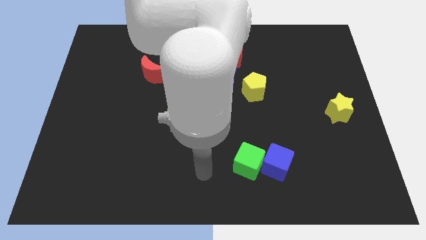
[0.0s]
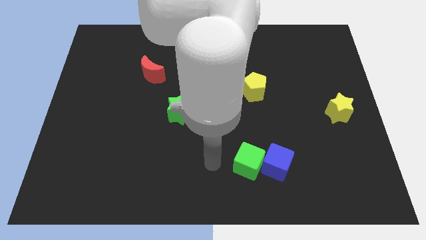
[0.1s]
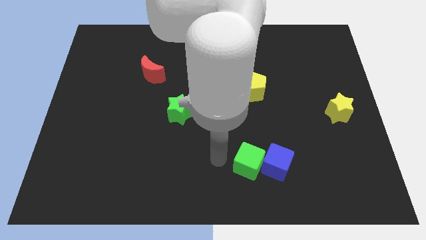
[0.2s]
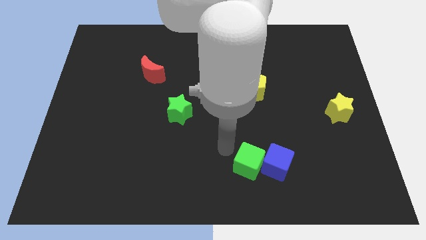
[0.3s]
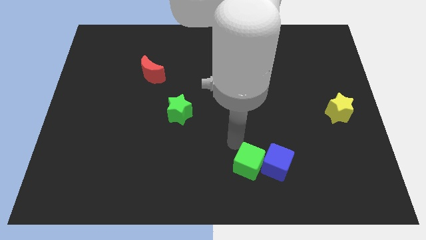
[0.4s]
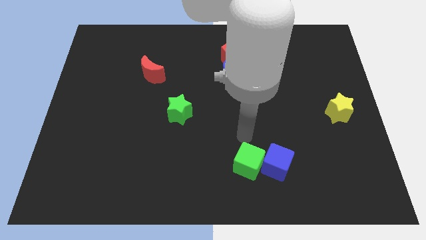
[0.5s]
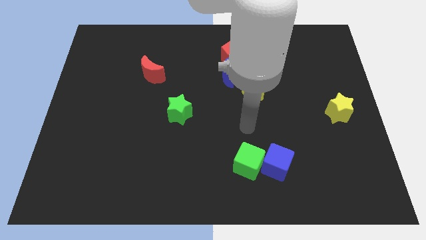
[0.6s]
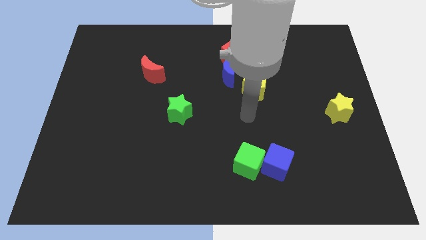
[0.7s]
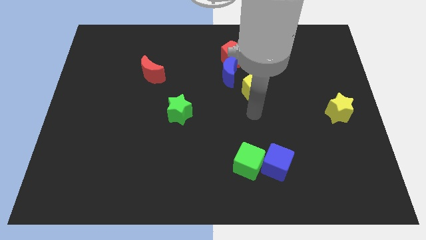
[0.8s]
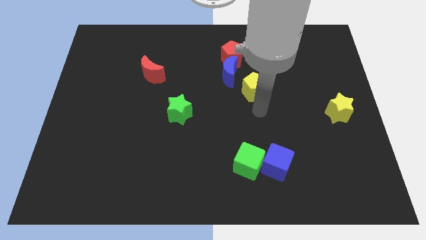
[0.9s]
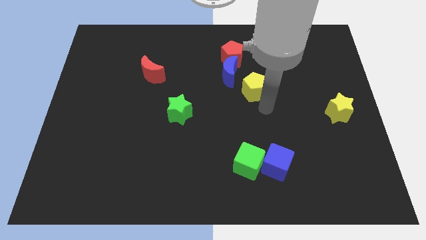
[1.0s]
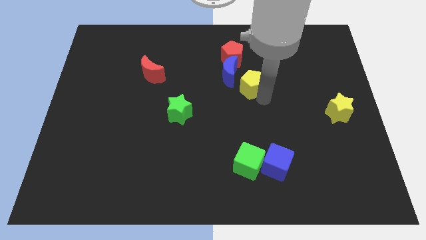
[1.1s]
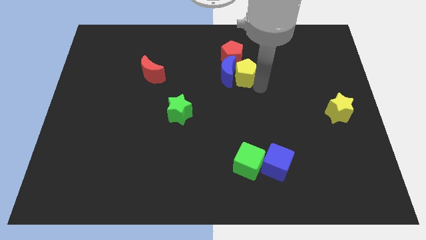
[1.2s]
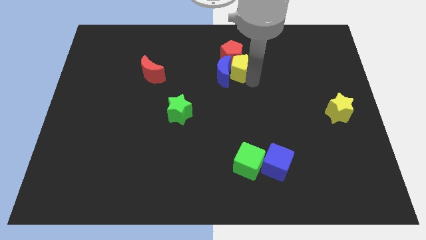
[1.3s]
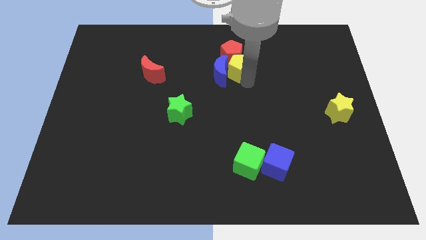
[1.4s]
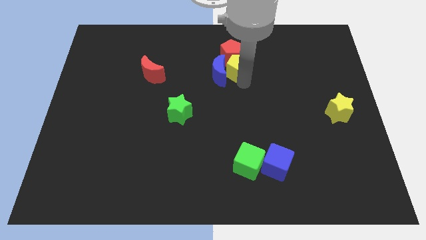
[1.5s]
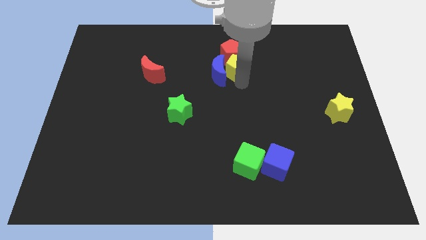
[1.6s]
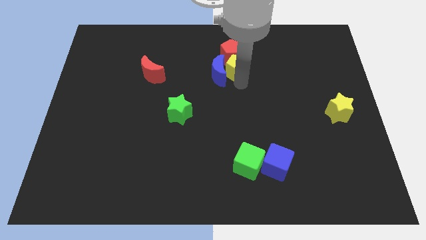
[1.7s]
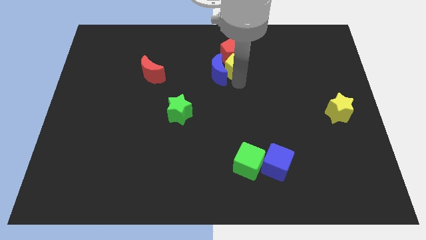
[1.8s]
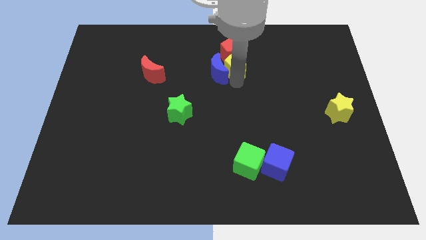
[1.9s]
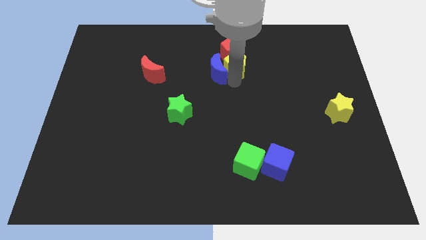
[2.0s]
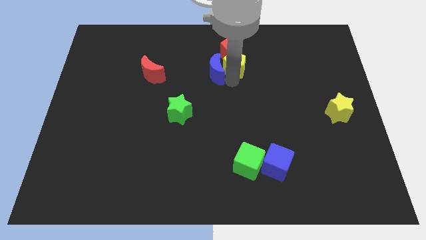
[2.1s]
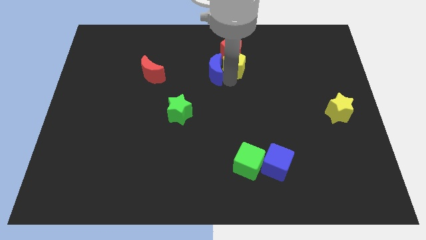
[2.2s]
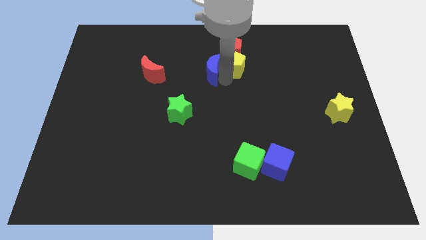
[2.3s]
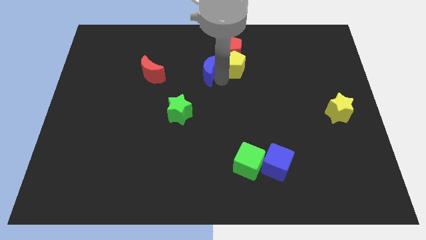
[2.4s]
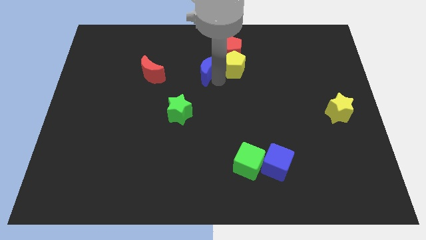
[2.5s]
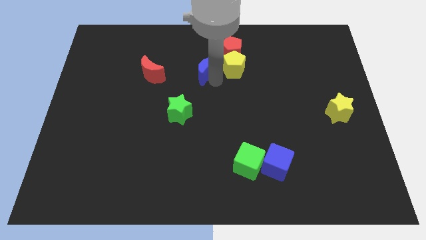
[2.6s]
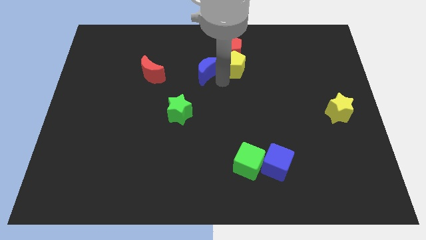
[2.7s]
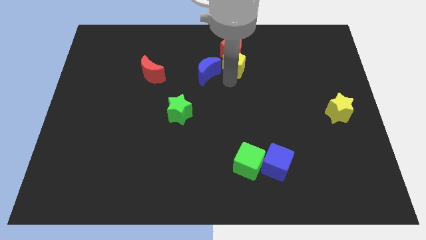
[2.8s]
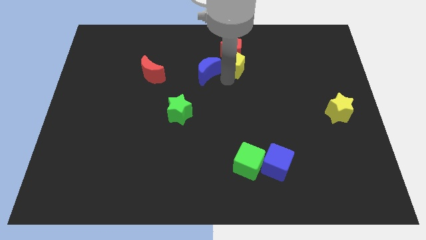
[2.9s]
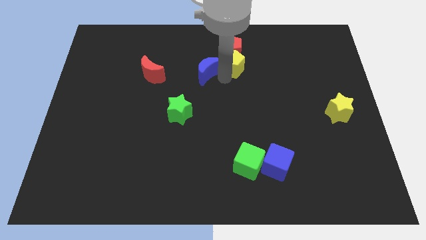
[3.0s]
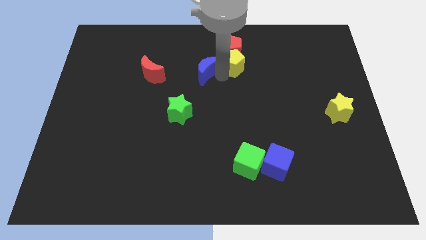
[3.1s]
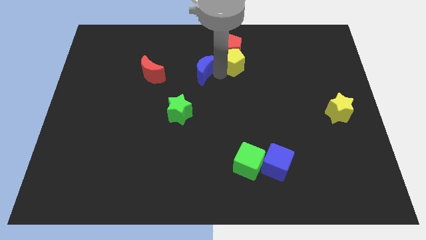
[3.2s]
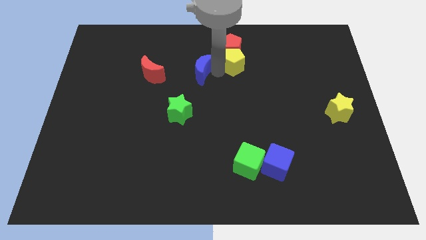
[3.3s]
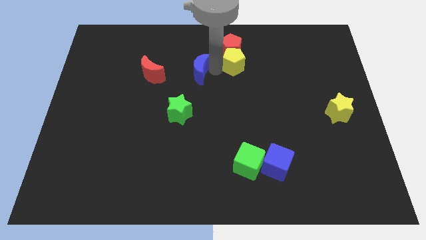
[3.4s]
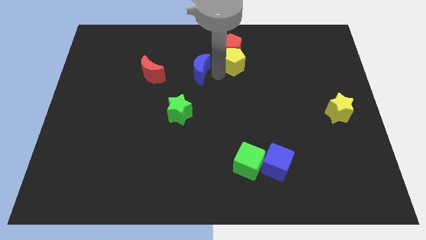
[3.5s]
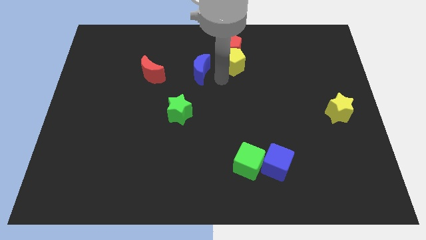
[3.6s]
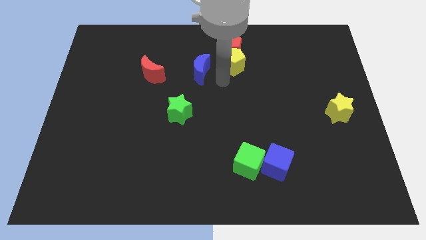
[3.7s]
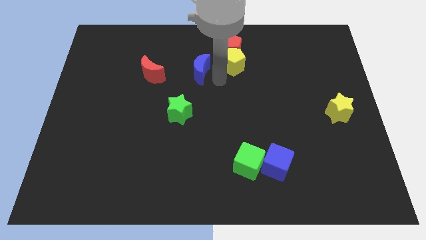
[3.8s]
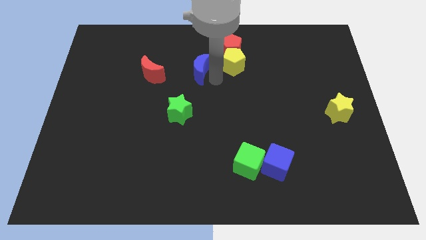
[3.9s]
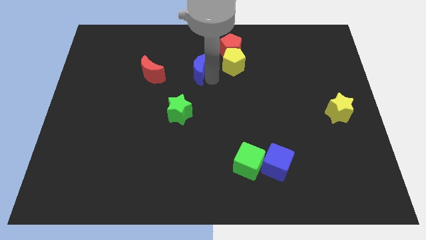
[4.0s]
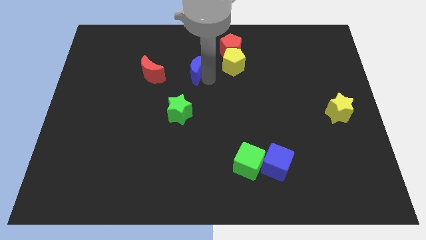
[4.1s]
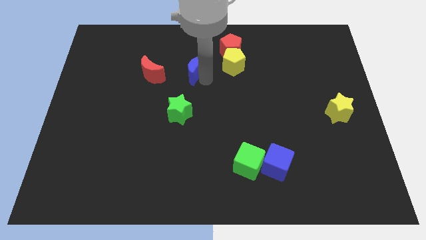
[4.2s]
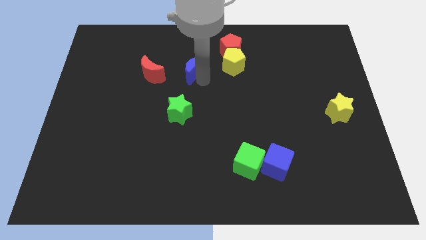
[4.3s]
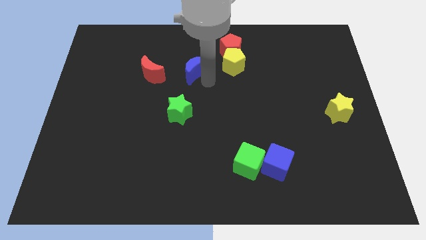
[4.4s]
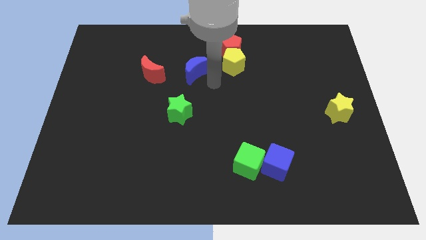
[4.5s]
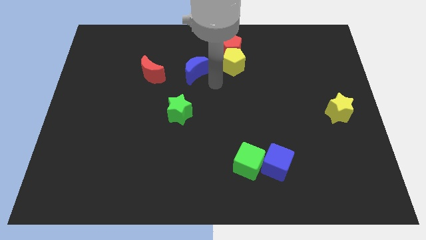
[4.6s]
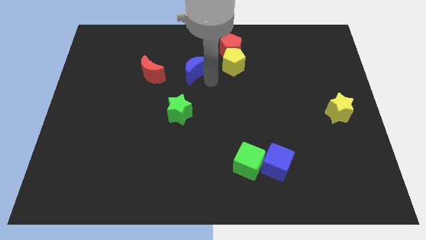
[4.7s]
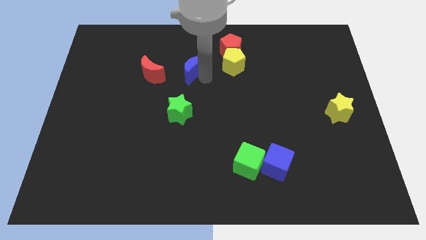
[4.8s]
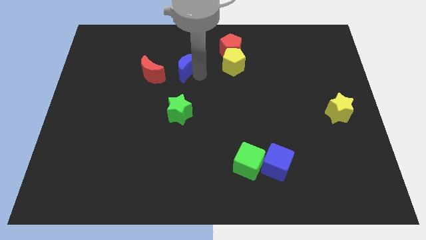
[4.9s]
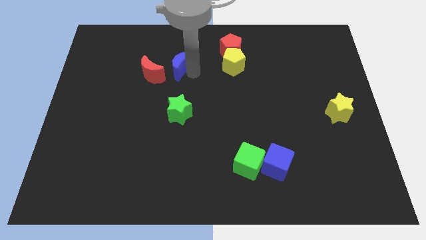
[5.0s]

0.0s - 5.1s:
move the blue moon diagonally up and to the right of the red moon

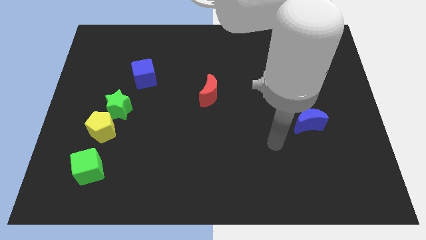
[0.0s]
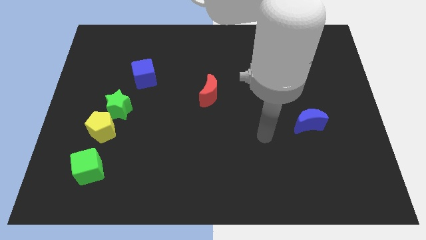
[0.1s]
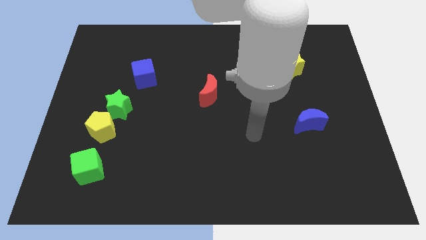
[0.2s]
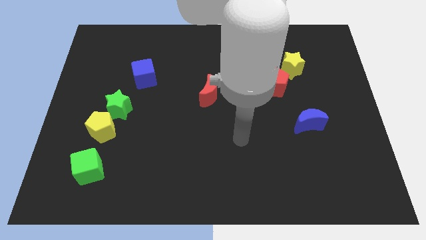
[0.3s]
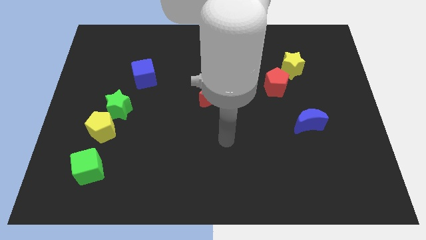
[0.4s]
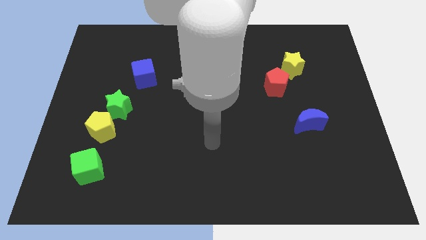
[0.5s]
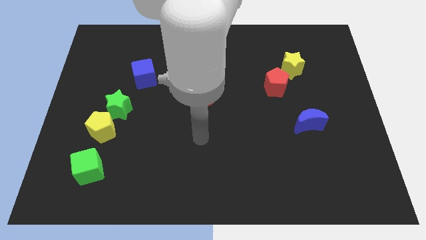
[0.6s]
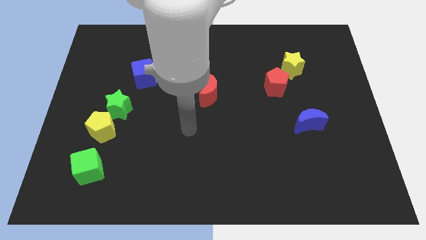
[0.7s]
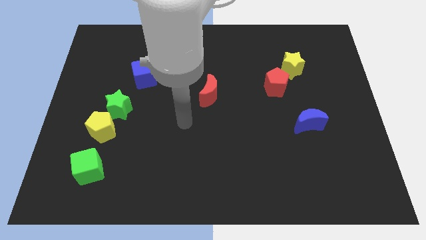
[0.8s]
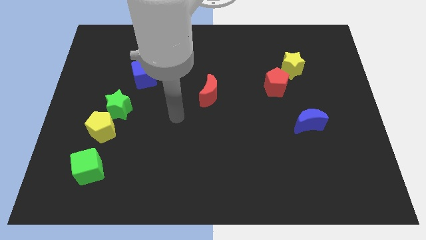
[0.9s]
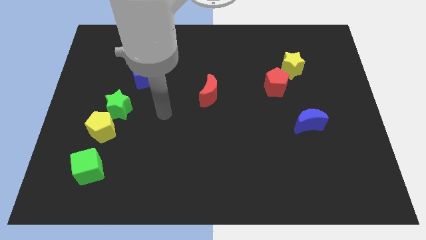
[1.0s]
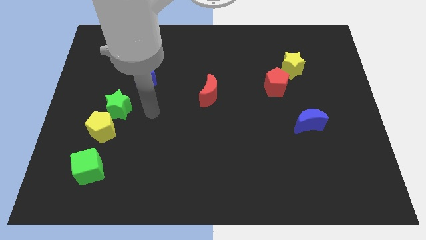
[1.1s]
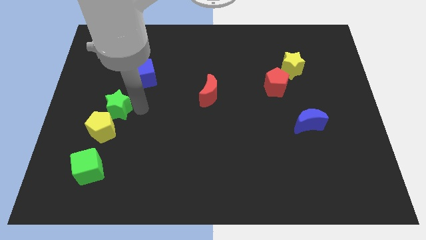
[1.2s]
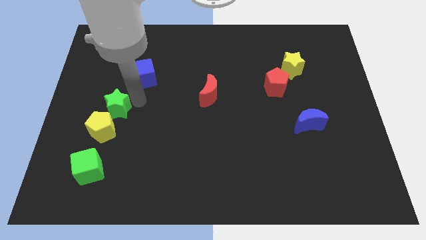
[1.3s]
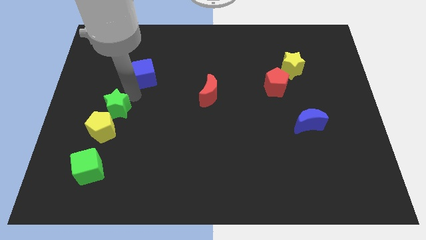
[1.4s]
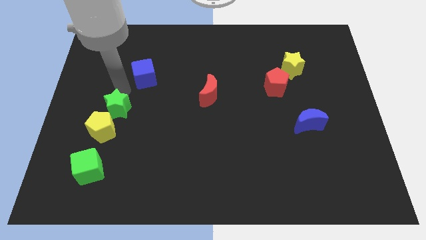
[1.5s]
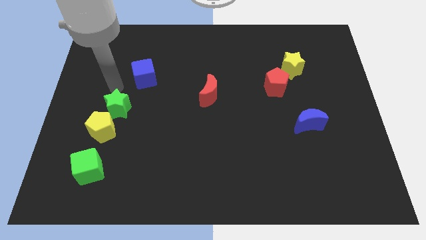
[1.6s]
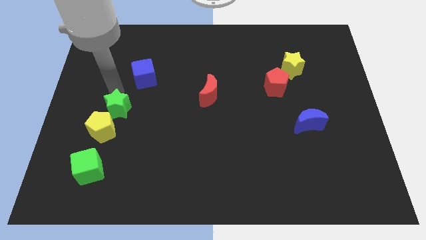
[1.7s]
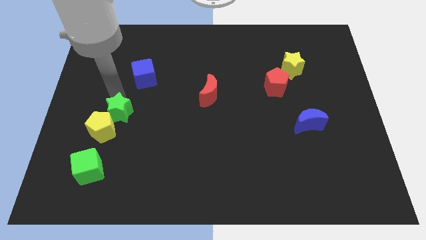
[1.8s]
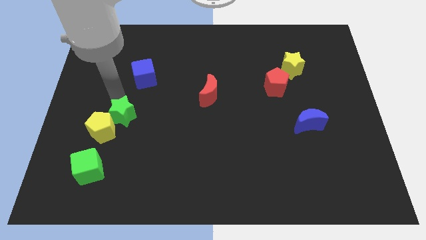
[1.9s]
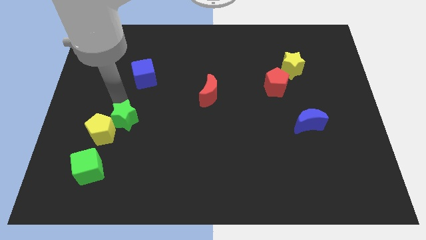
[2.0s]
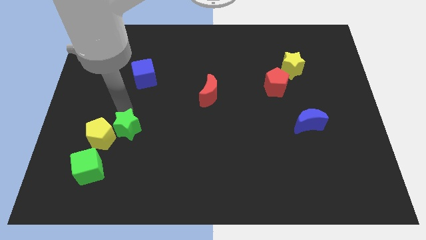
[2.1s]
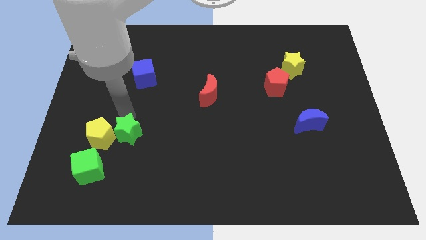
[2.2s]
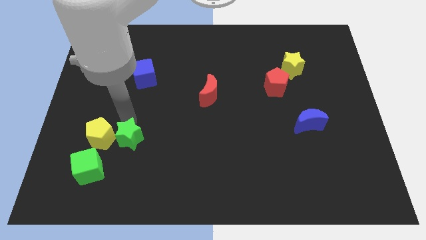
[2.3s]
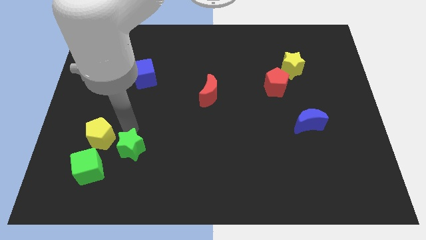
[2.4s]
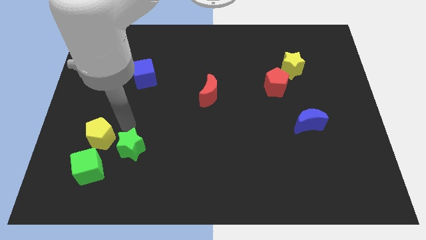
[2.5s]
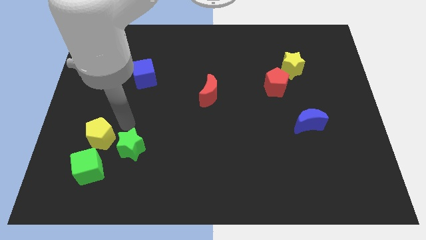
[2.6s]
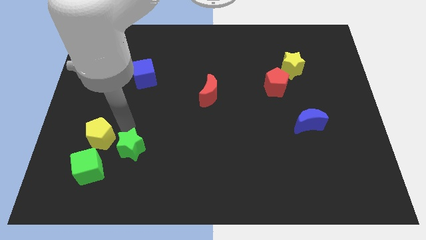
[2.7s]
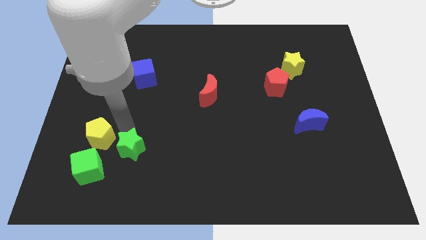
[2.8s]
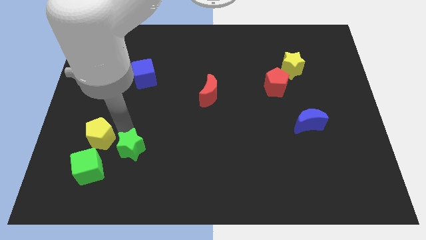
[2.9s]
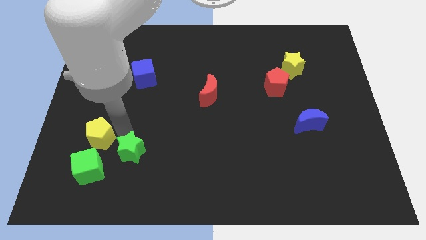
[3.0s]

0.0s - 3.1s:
push the green star to the right side of the green cube
